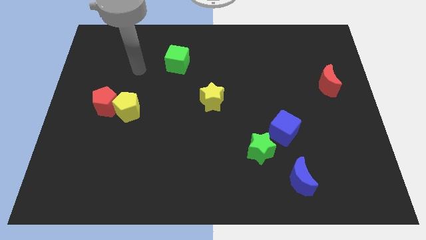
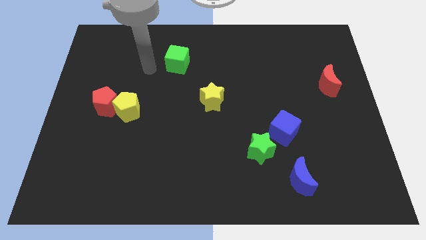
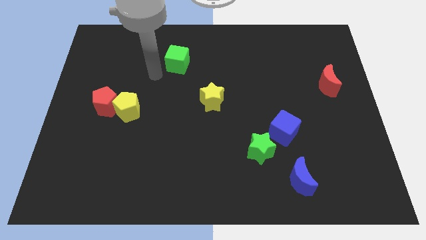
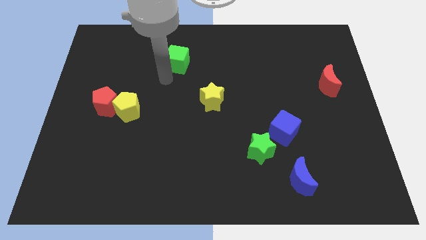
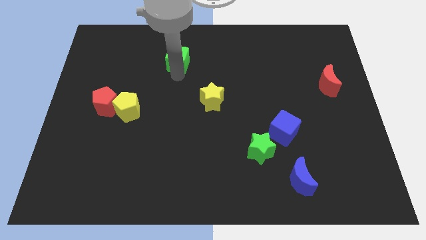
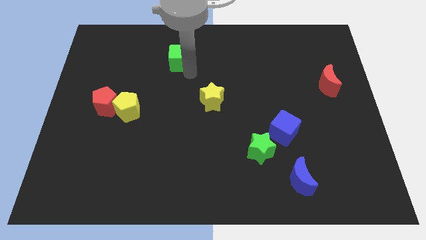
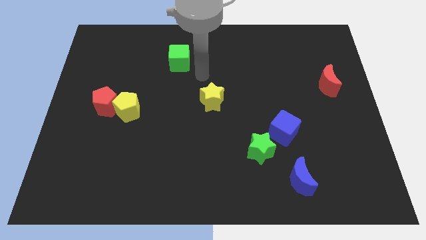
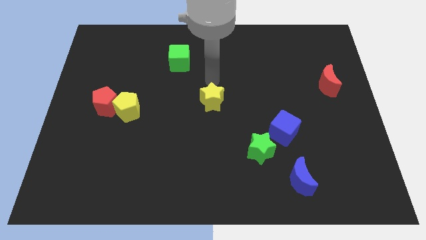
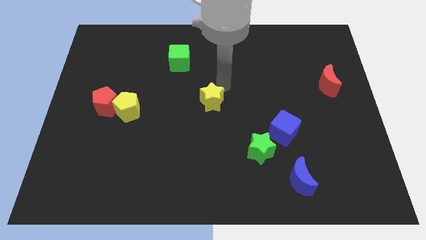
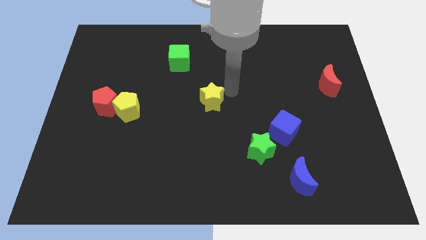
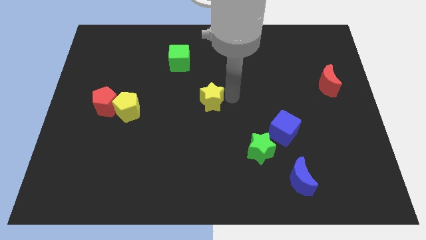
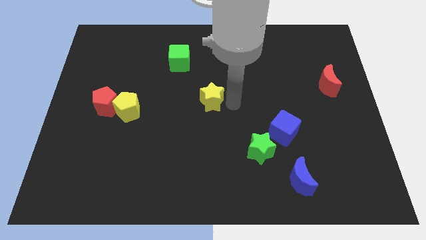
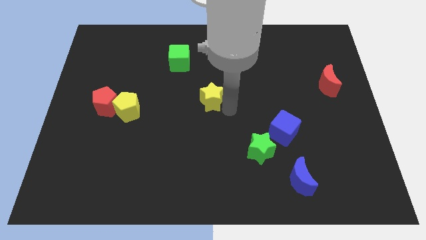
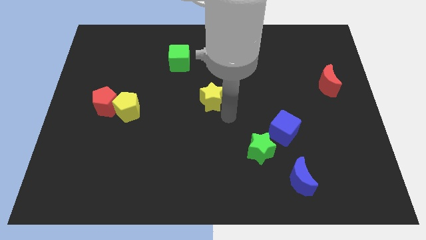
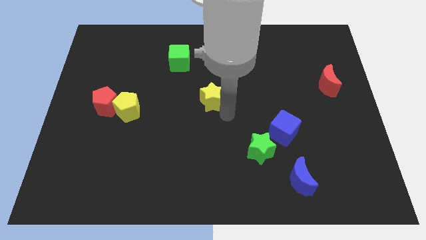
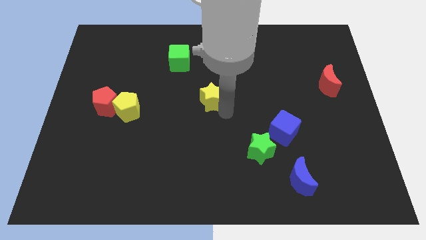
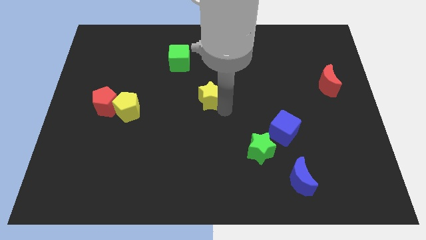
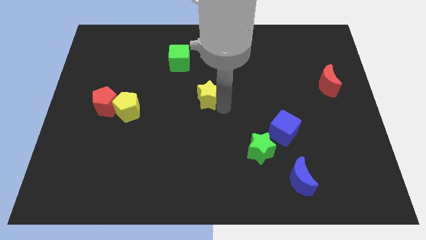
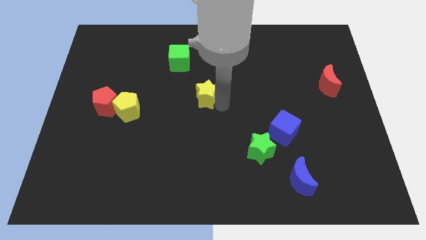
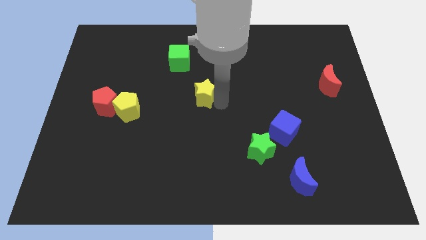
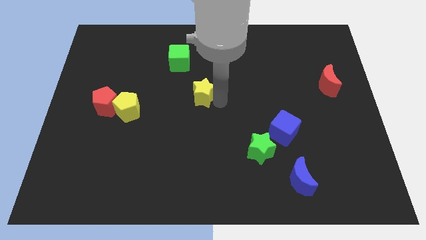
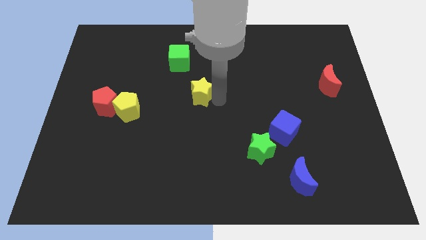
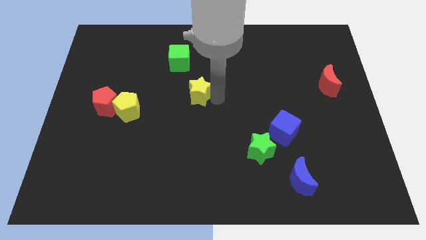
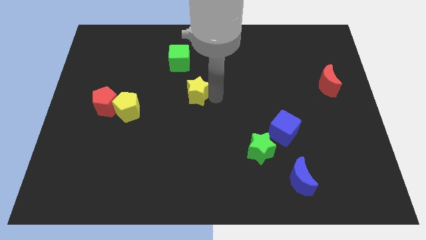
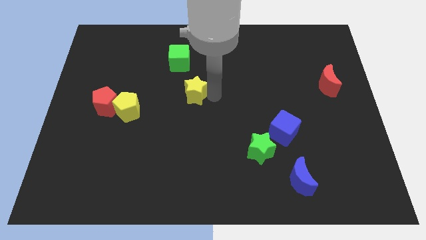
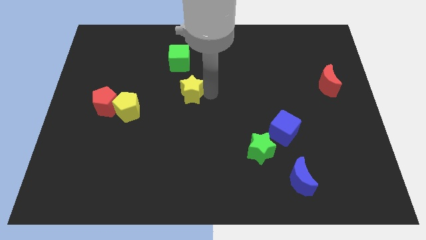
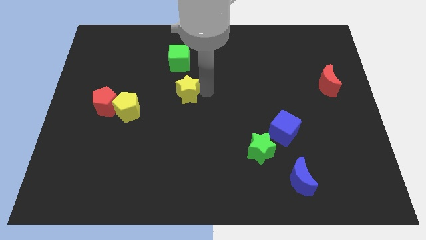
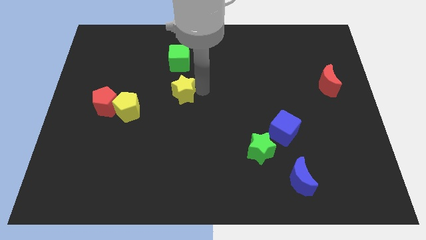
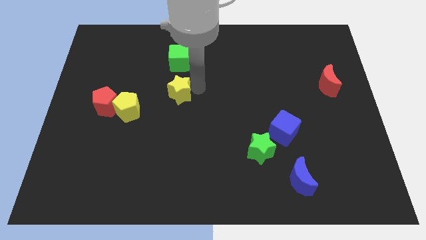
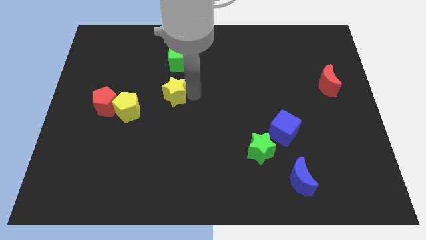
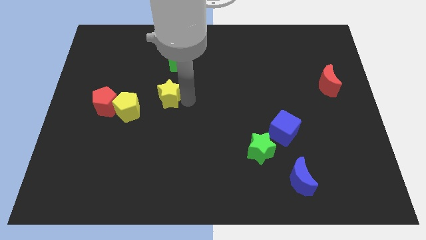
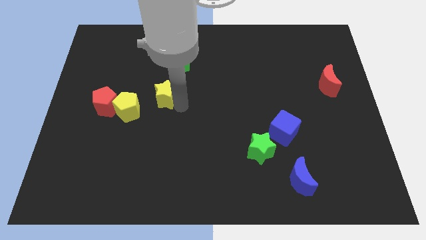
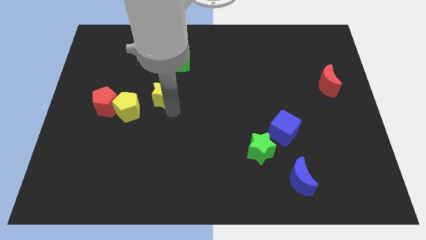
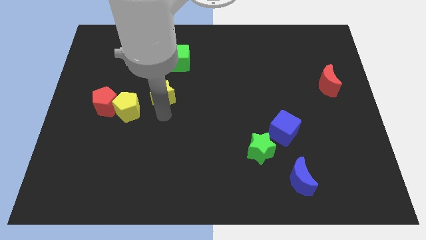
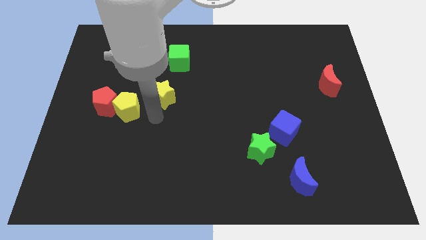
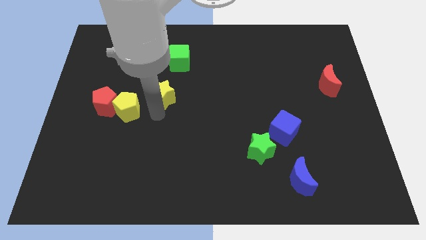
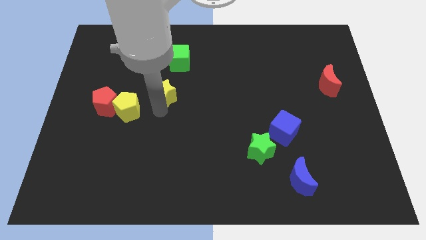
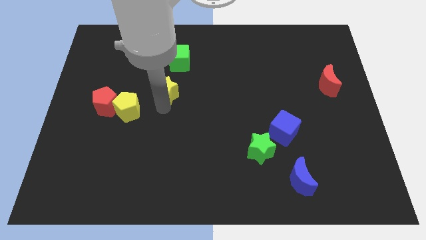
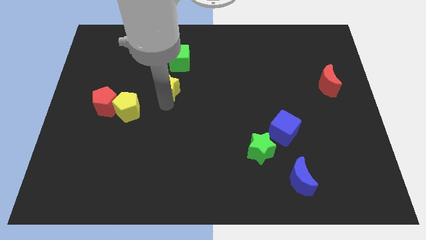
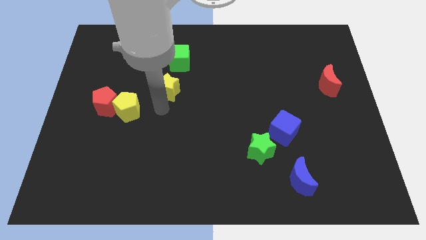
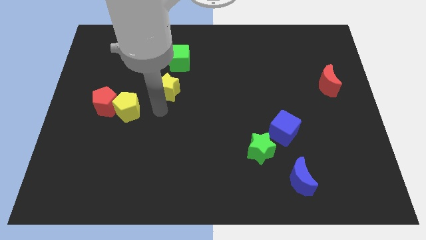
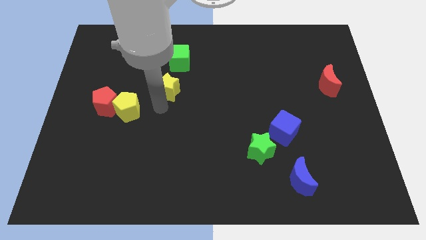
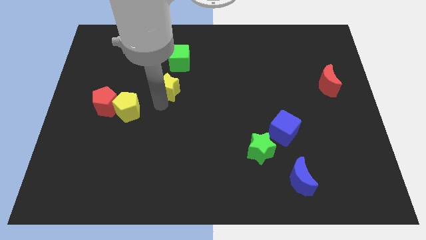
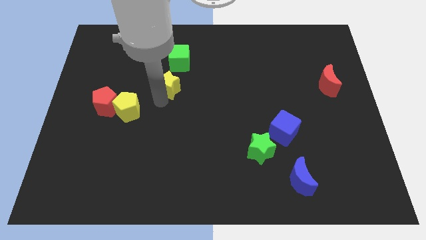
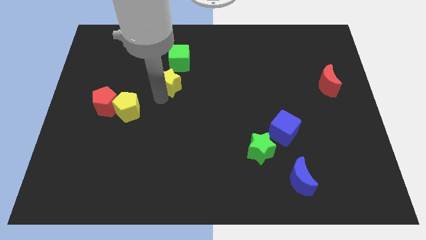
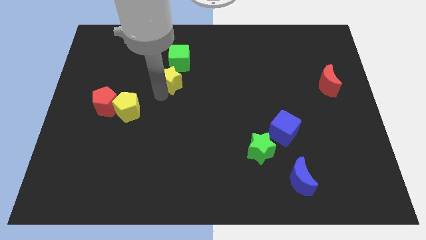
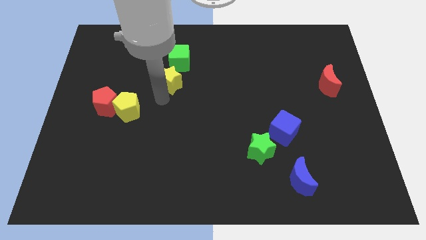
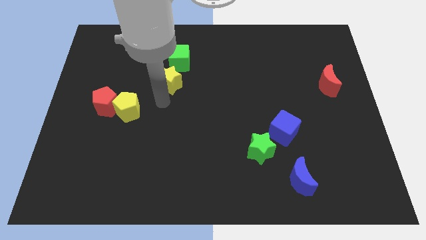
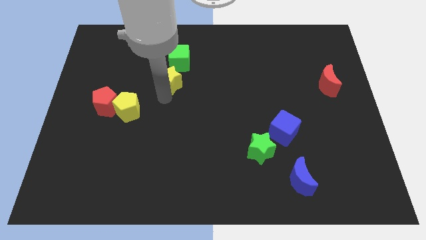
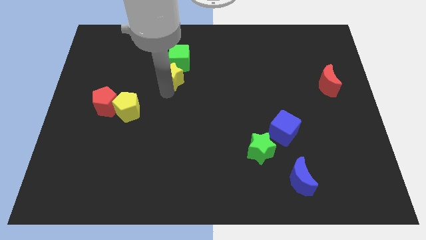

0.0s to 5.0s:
slide the yellow star next to the green cube

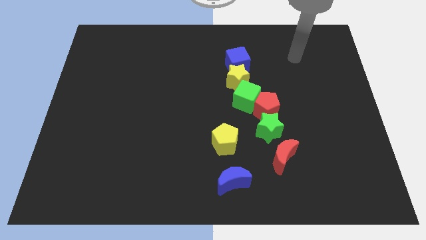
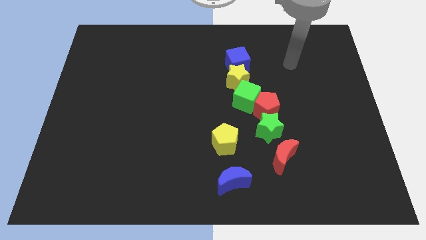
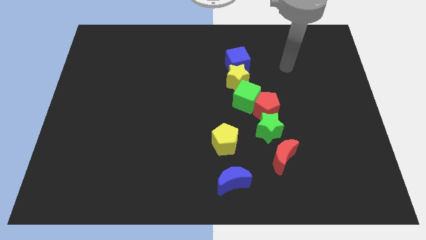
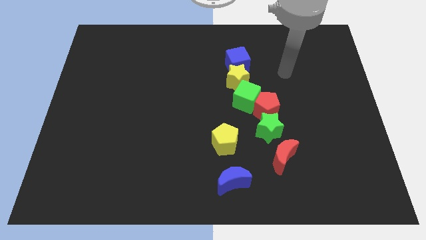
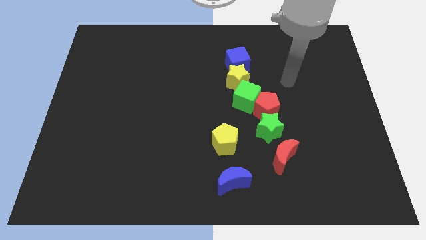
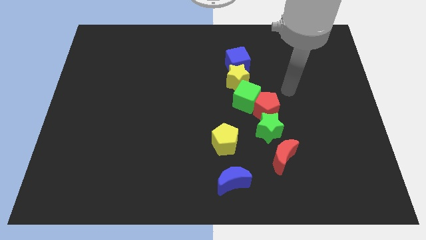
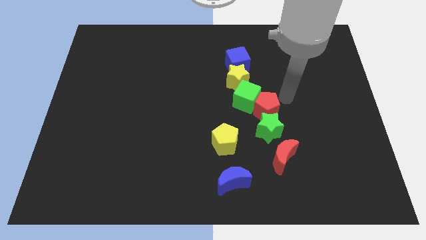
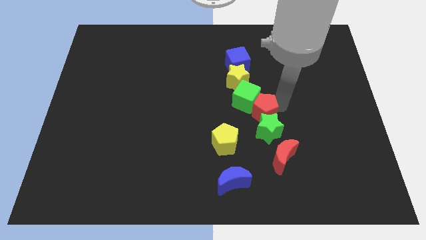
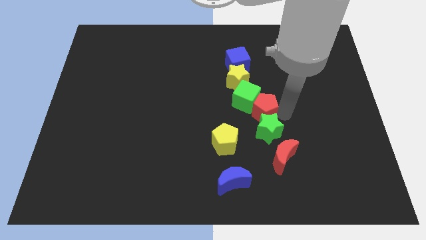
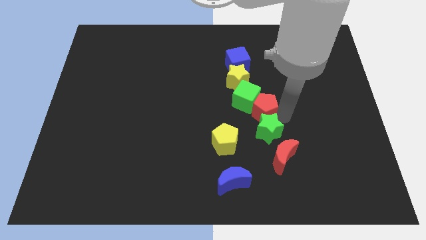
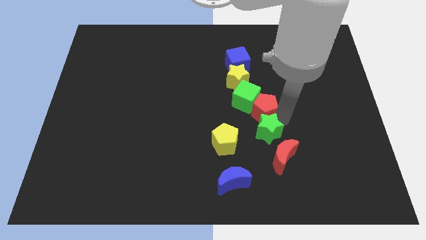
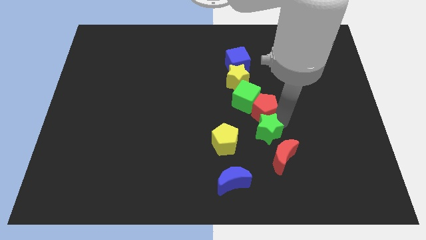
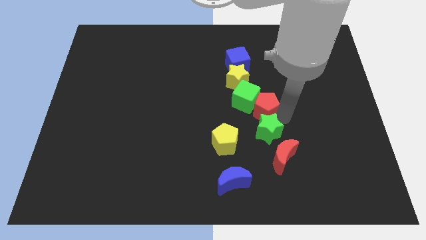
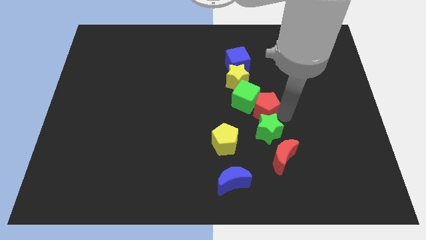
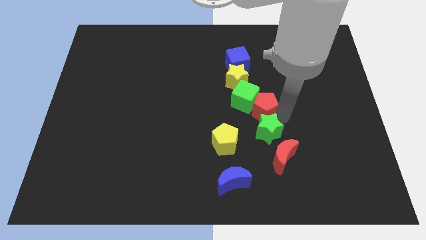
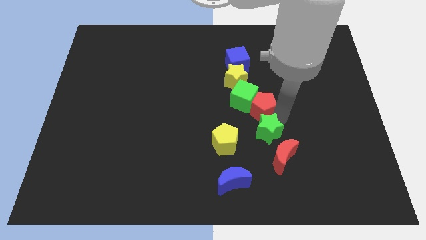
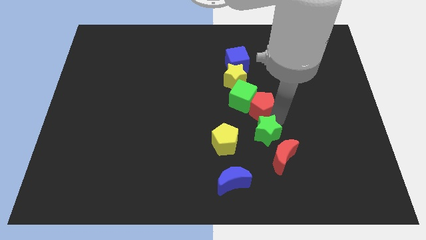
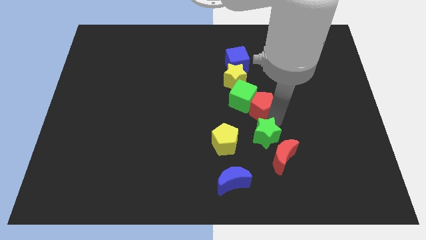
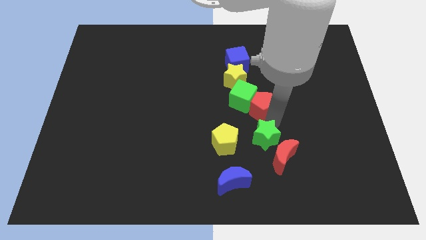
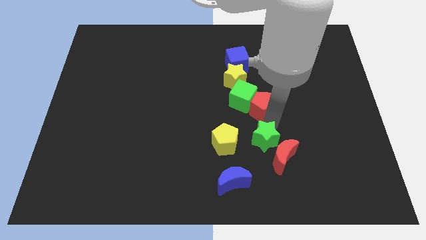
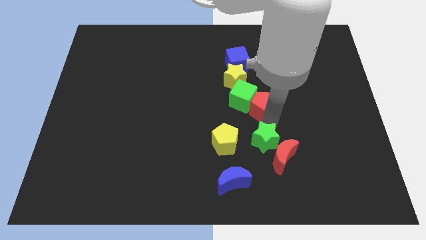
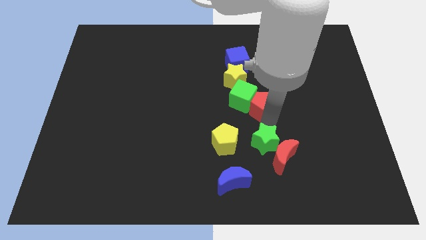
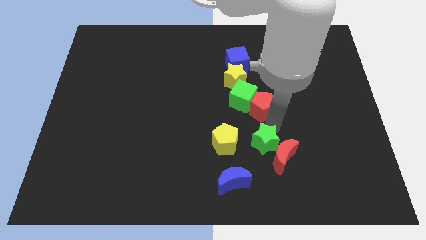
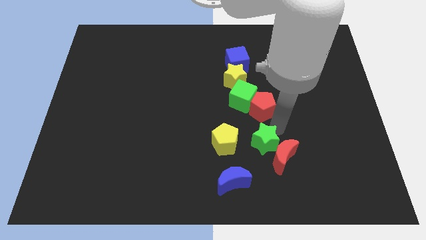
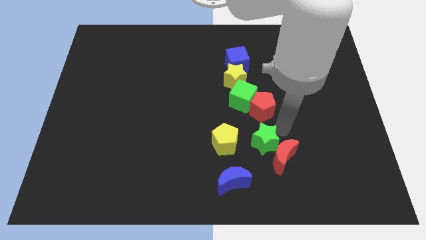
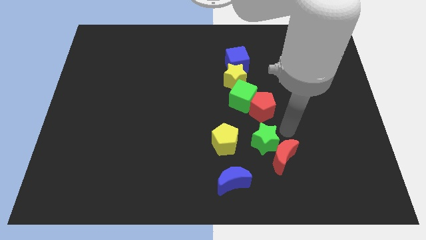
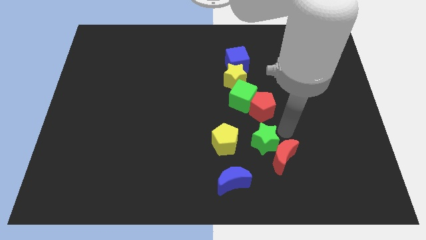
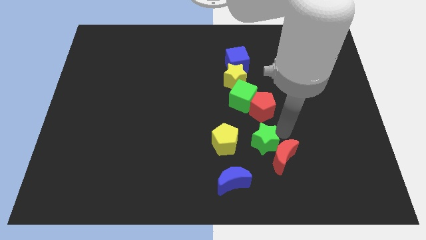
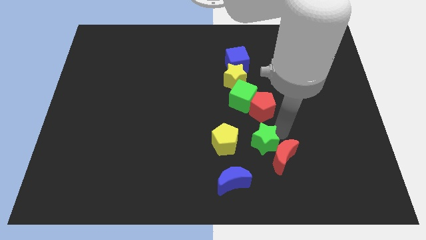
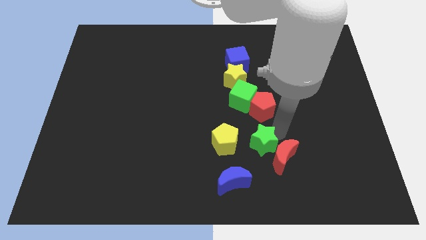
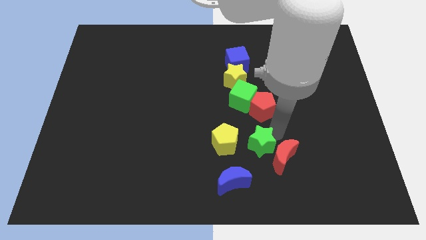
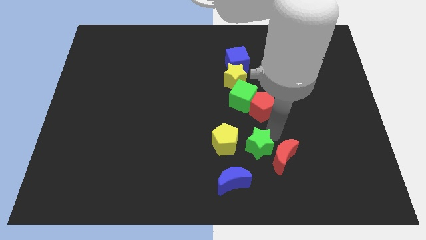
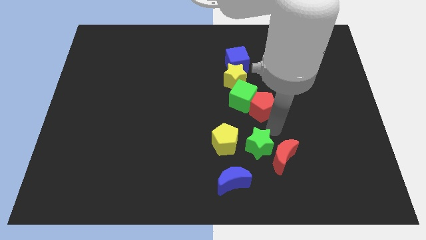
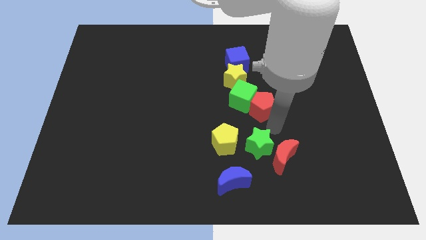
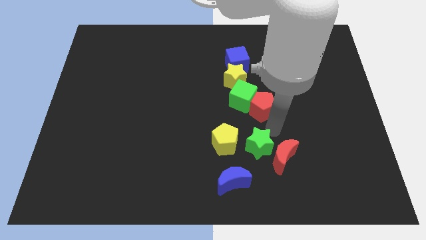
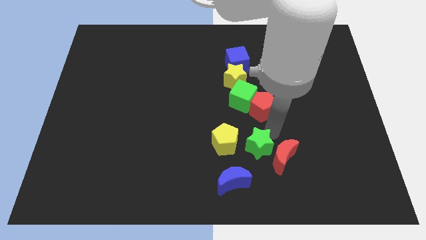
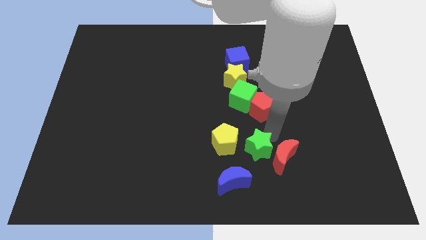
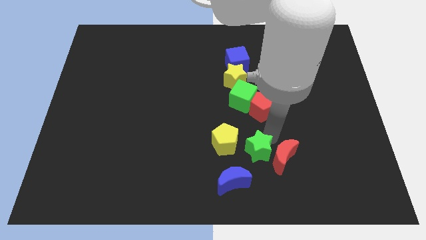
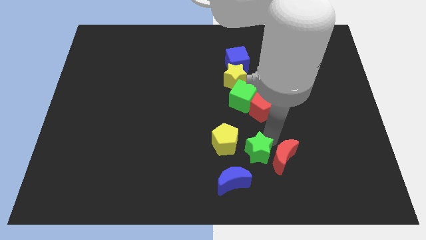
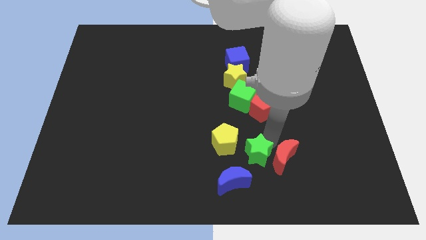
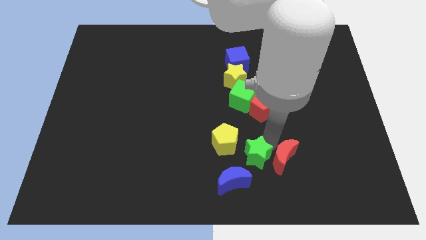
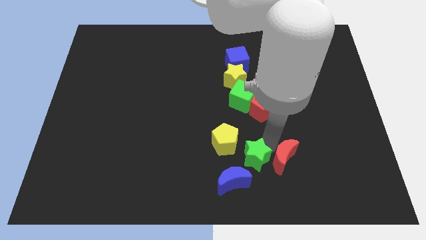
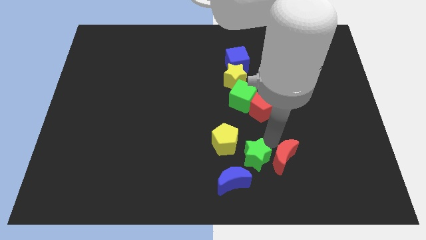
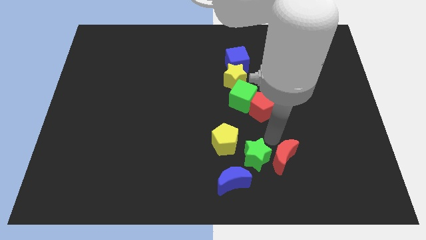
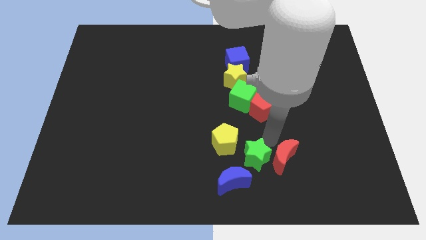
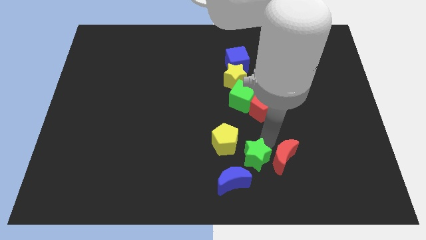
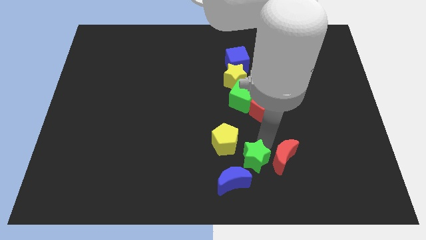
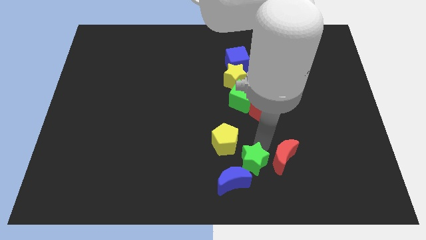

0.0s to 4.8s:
slide the green star close to the blue moon
